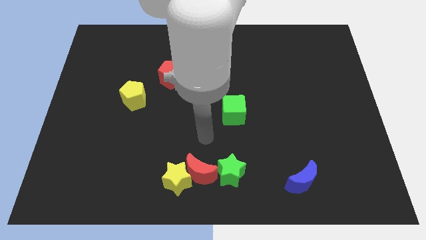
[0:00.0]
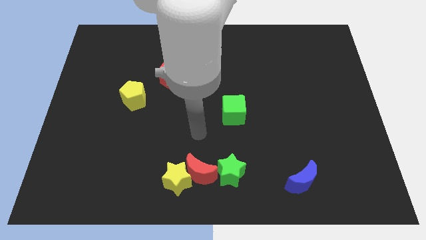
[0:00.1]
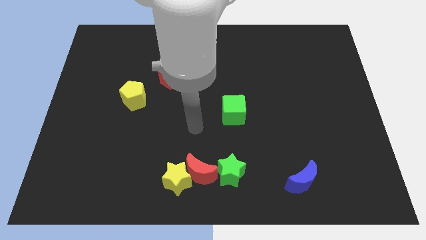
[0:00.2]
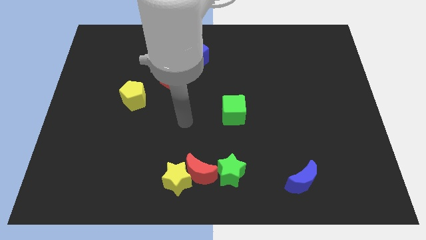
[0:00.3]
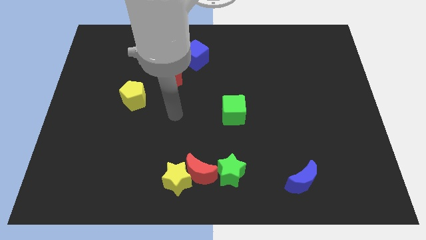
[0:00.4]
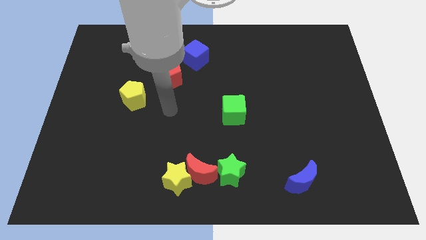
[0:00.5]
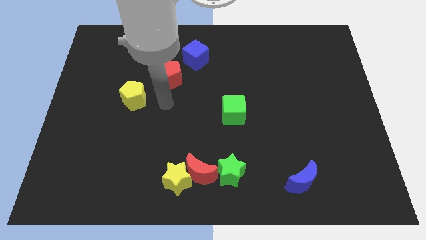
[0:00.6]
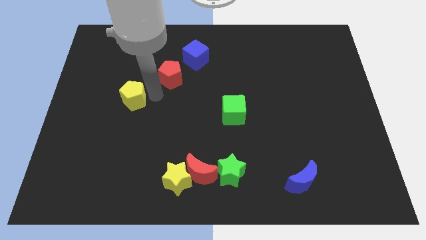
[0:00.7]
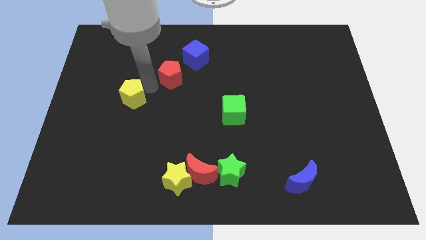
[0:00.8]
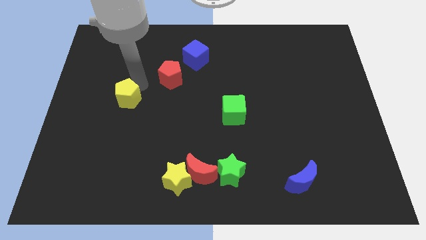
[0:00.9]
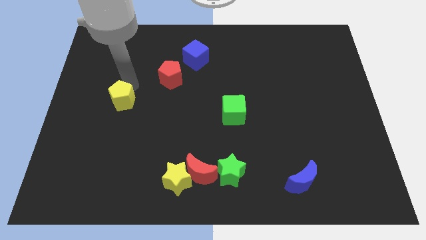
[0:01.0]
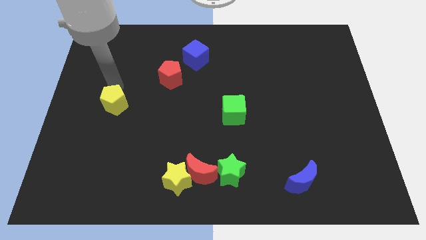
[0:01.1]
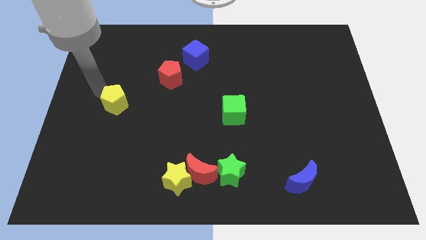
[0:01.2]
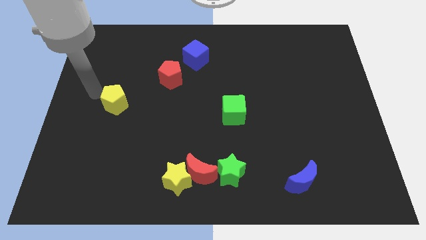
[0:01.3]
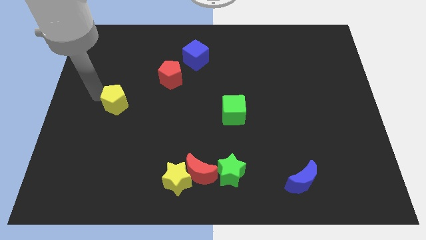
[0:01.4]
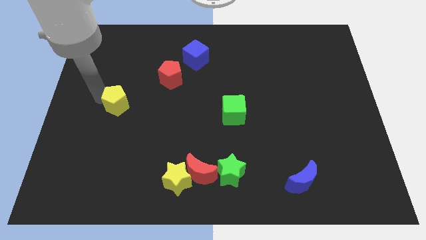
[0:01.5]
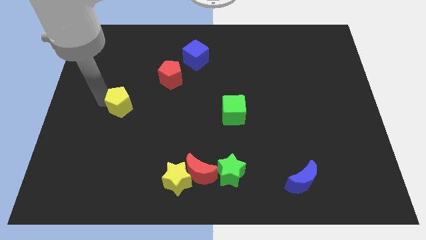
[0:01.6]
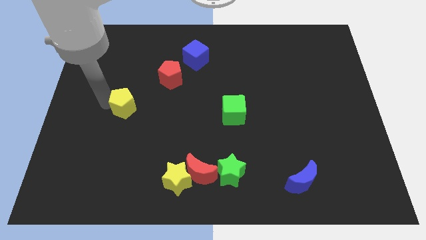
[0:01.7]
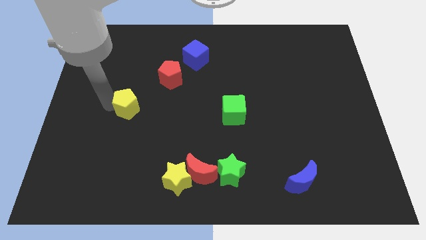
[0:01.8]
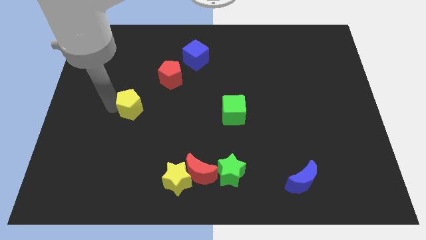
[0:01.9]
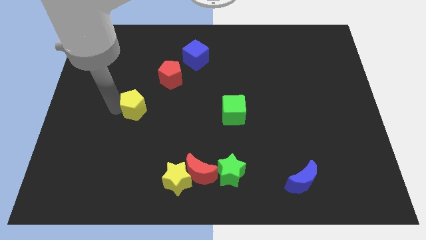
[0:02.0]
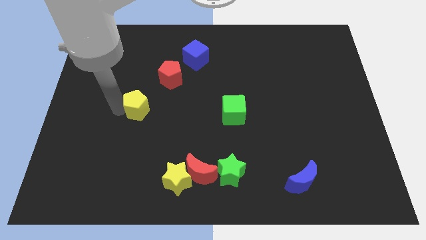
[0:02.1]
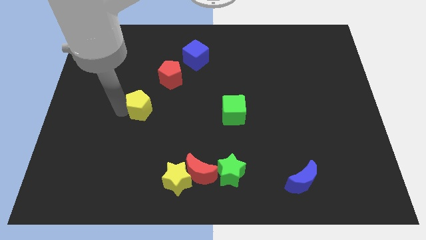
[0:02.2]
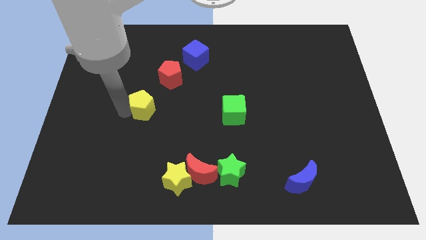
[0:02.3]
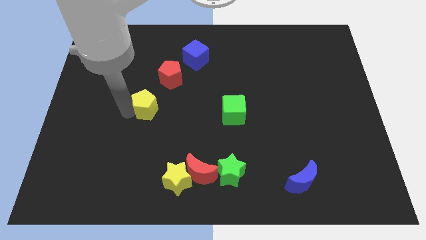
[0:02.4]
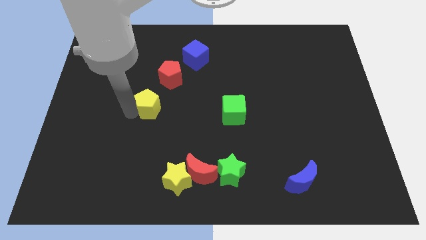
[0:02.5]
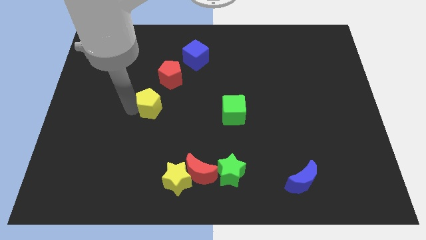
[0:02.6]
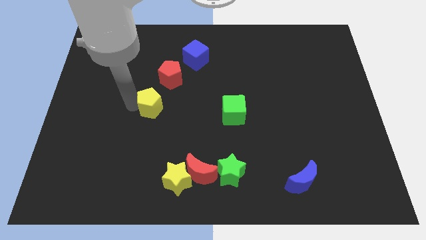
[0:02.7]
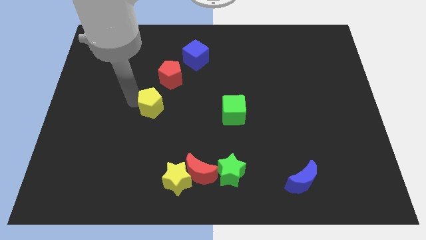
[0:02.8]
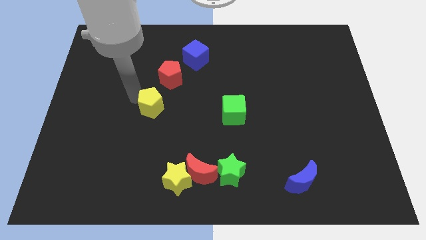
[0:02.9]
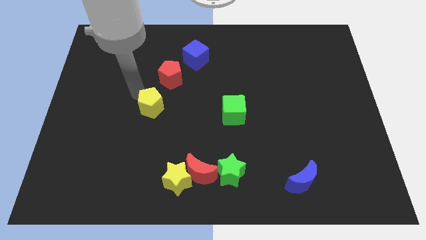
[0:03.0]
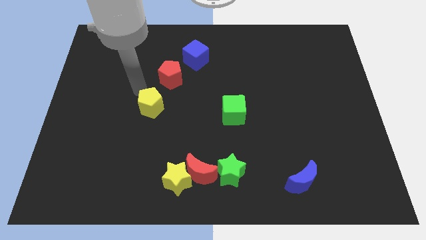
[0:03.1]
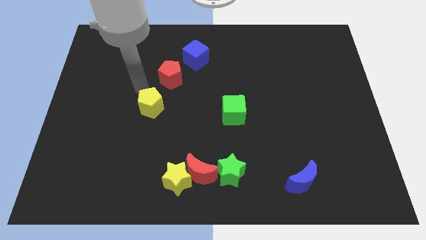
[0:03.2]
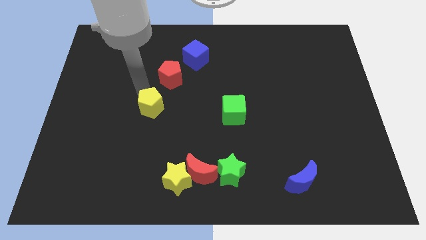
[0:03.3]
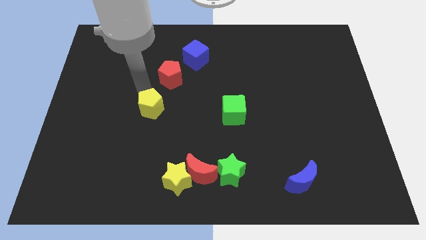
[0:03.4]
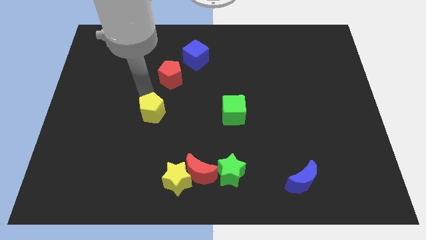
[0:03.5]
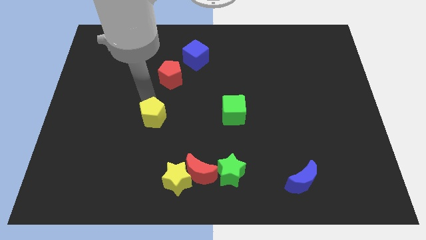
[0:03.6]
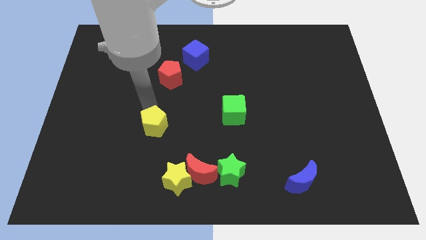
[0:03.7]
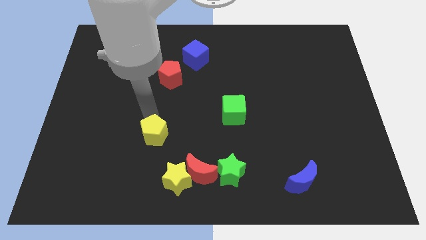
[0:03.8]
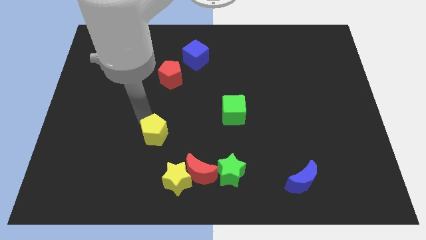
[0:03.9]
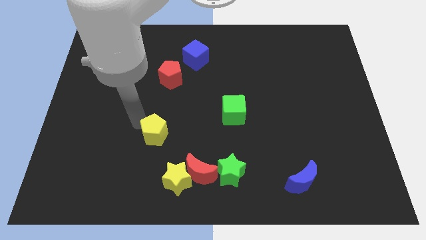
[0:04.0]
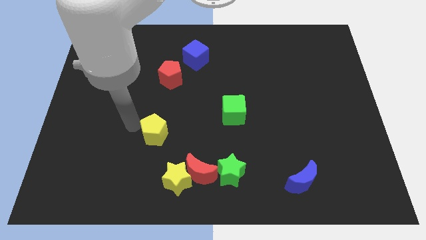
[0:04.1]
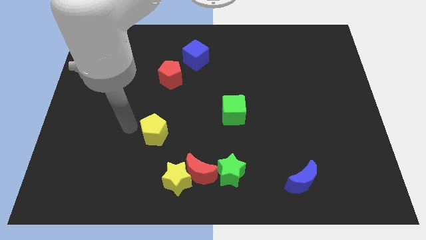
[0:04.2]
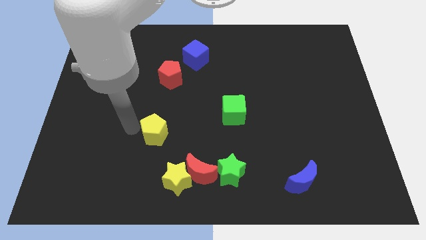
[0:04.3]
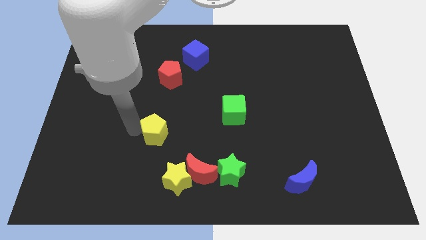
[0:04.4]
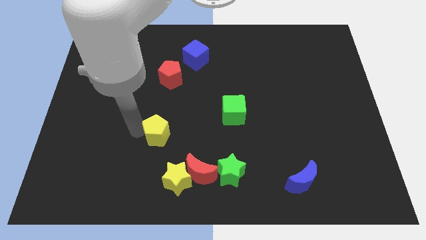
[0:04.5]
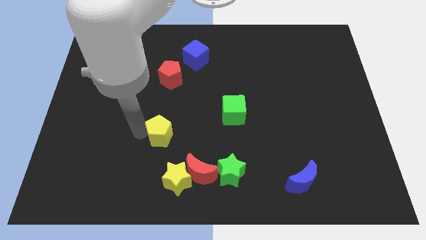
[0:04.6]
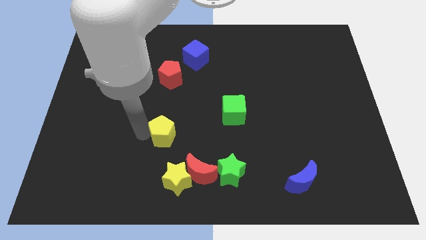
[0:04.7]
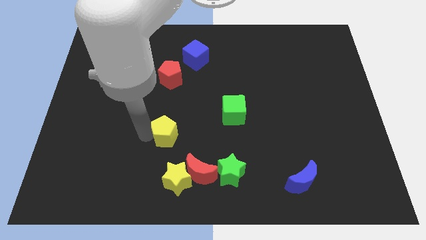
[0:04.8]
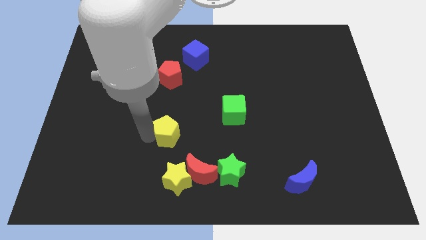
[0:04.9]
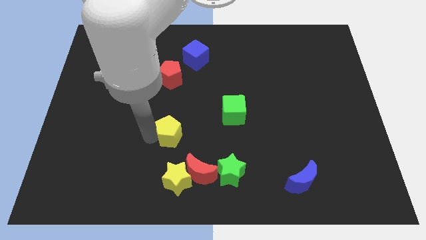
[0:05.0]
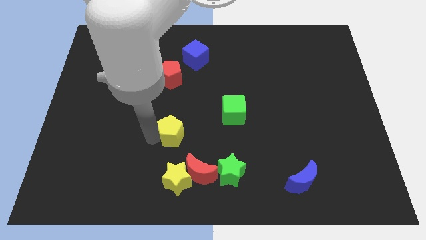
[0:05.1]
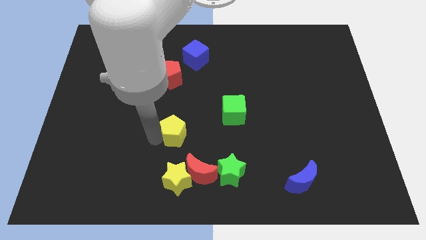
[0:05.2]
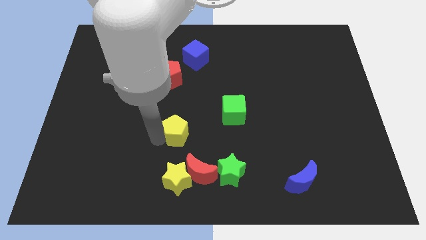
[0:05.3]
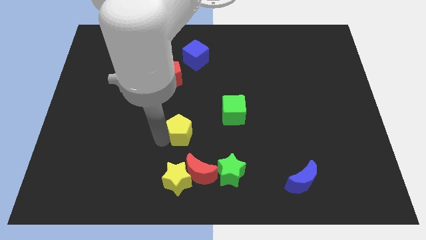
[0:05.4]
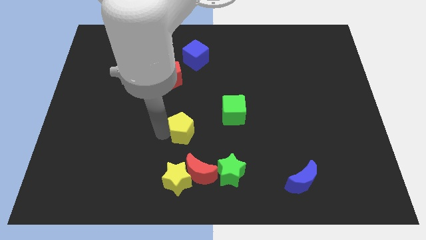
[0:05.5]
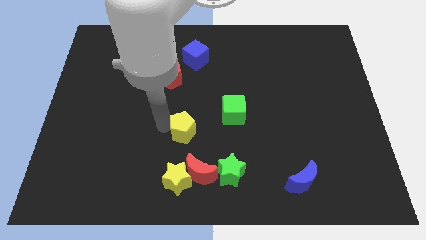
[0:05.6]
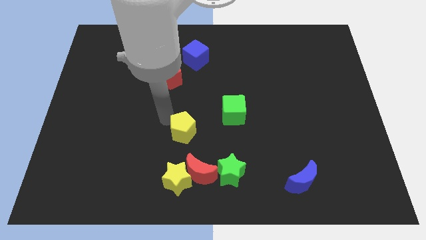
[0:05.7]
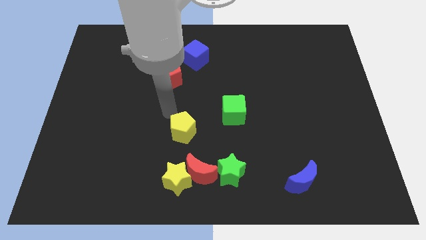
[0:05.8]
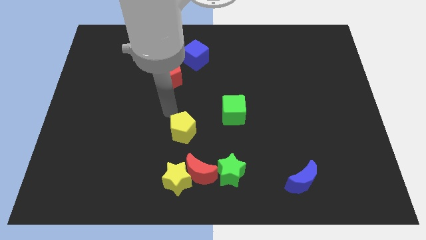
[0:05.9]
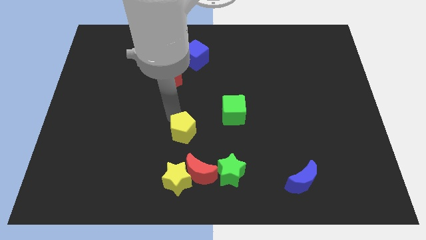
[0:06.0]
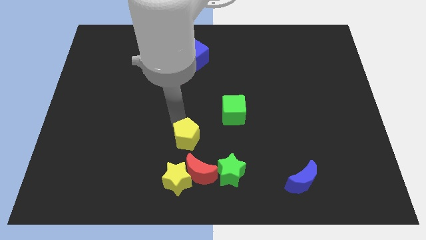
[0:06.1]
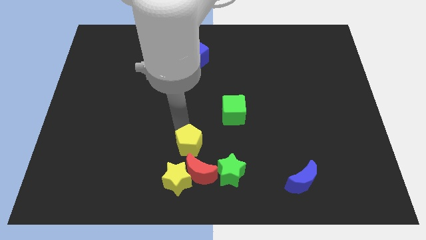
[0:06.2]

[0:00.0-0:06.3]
move the yellow pentagon diagonally up and to the right of the yellow star

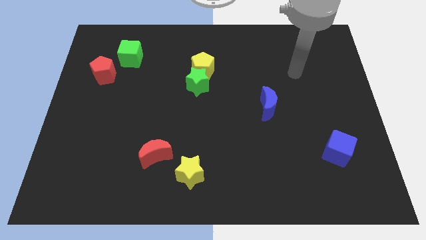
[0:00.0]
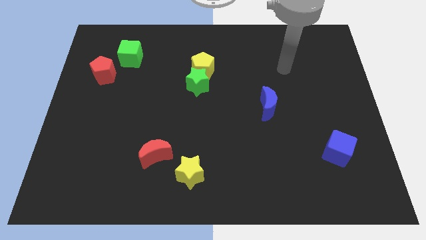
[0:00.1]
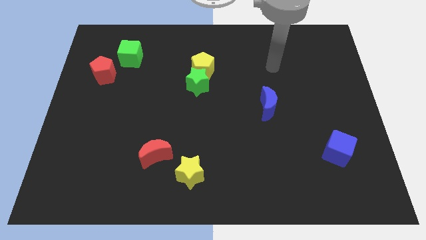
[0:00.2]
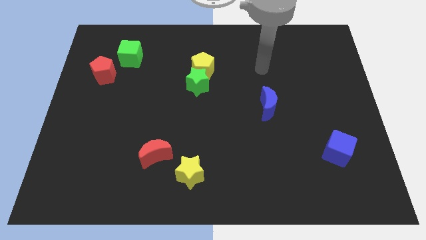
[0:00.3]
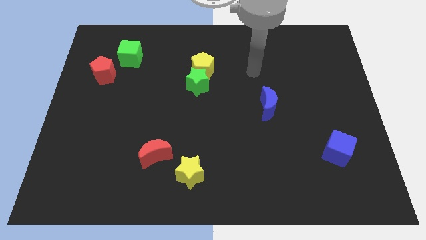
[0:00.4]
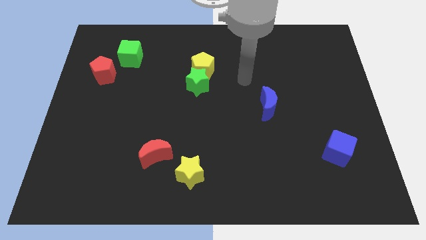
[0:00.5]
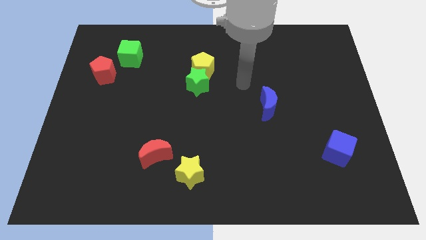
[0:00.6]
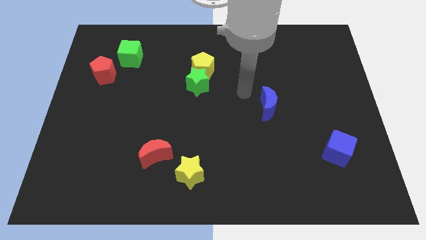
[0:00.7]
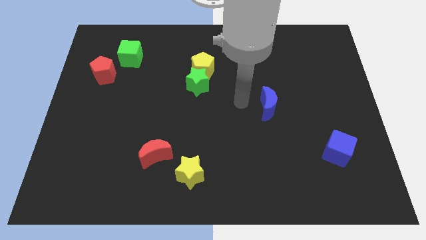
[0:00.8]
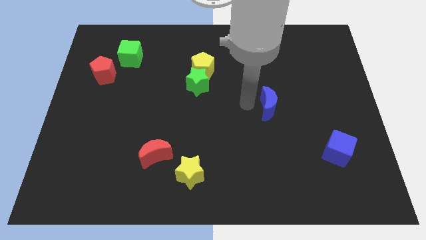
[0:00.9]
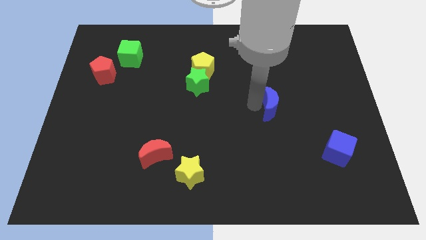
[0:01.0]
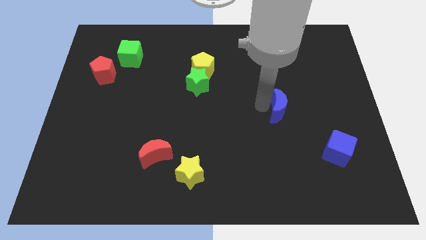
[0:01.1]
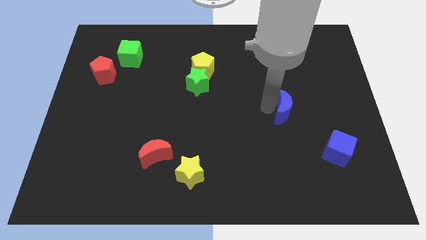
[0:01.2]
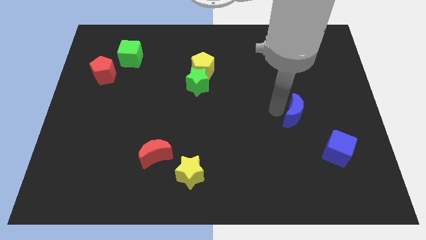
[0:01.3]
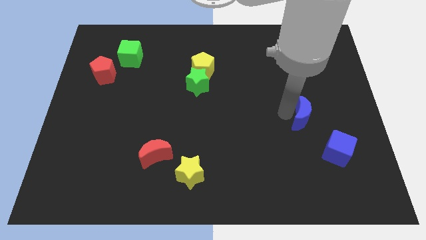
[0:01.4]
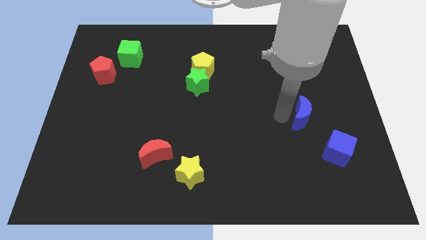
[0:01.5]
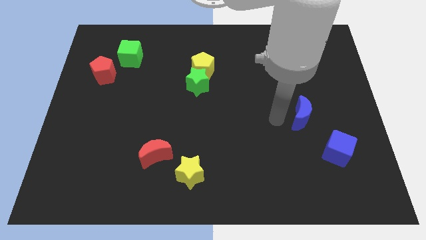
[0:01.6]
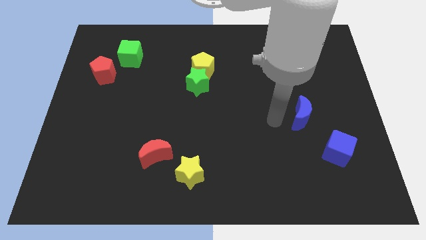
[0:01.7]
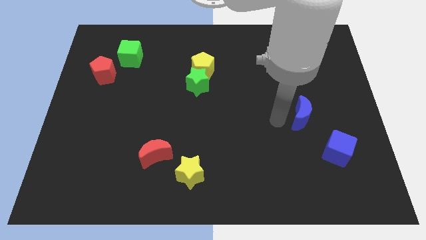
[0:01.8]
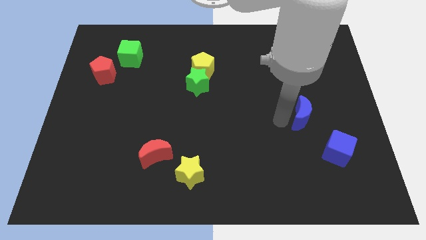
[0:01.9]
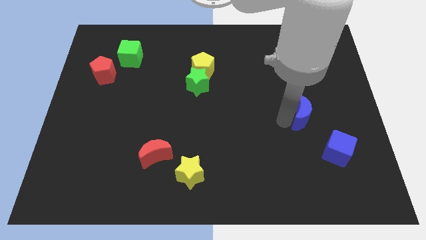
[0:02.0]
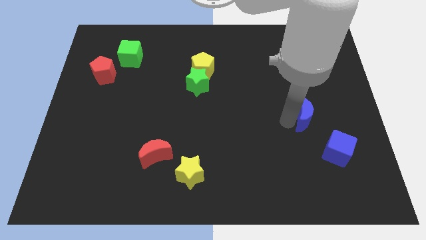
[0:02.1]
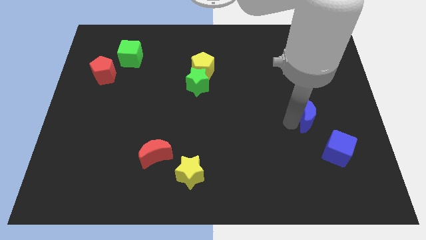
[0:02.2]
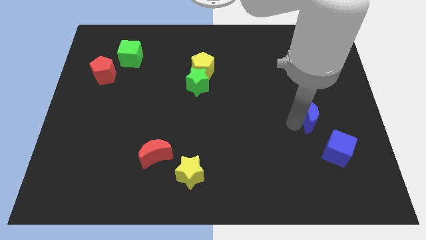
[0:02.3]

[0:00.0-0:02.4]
put the blue moon above the blue cube

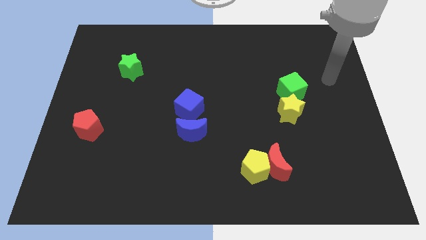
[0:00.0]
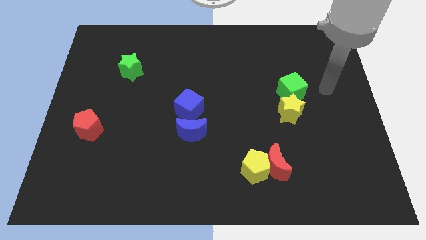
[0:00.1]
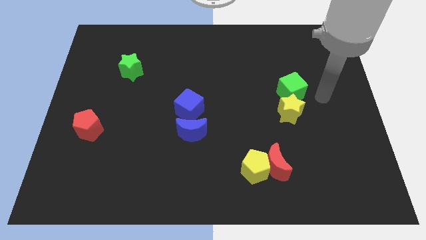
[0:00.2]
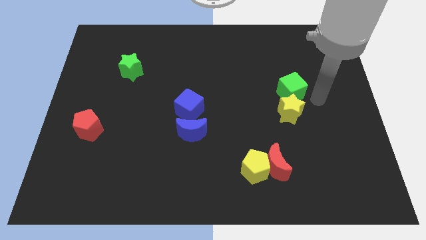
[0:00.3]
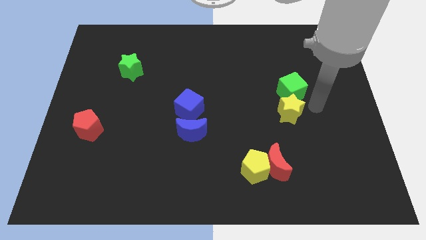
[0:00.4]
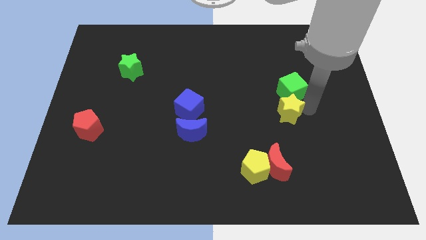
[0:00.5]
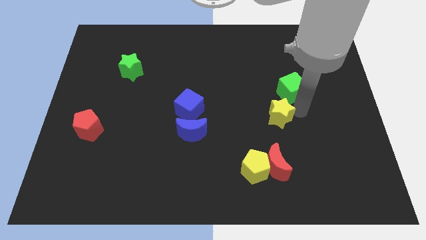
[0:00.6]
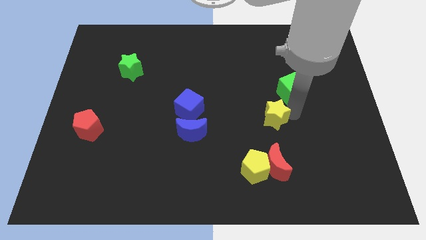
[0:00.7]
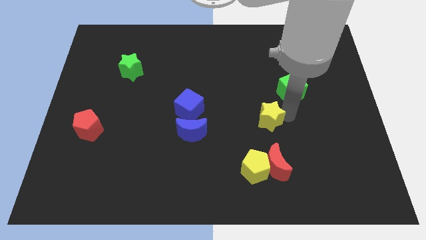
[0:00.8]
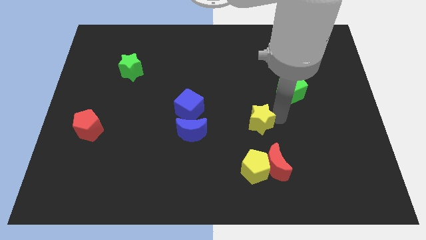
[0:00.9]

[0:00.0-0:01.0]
push the yellow star to the right of the blue moon
